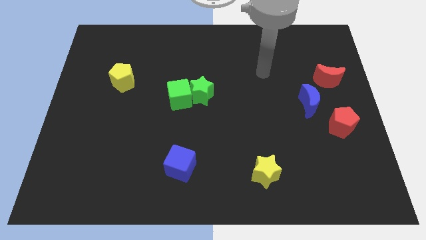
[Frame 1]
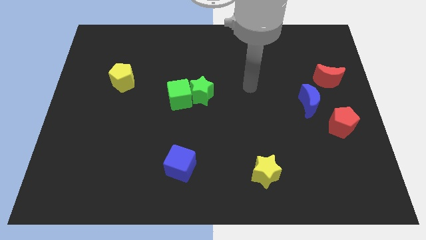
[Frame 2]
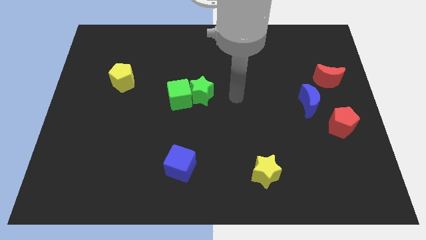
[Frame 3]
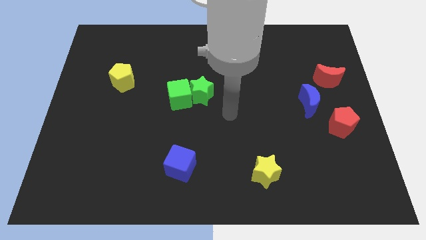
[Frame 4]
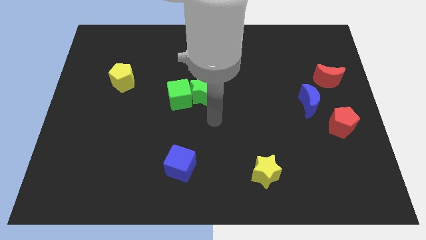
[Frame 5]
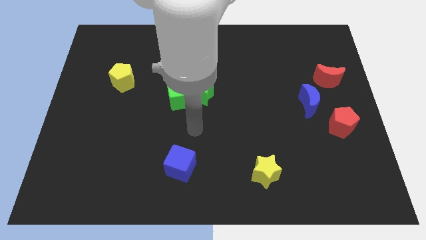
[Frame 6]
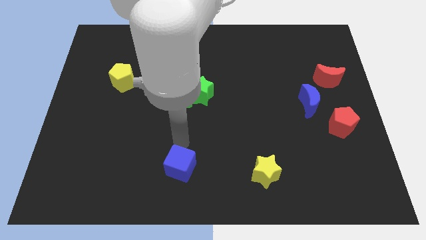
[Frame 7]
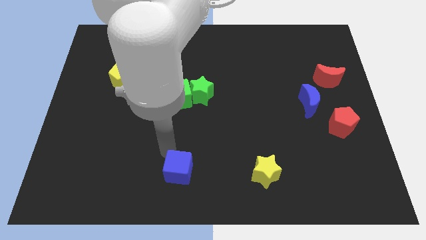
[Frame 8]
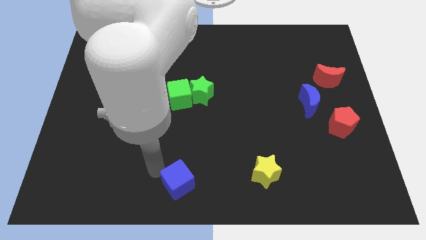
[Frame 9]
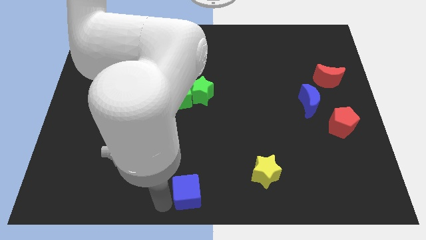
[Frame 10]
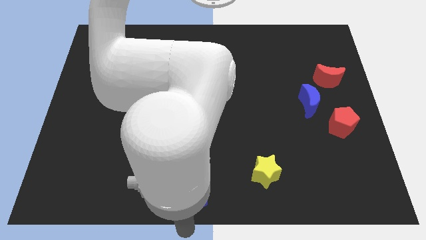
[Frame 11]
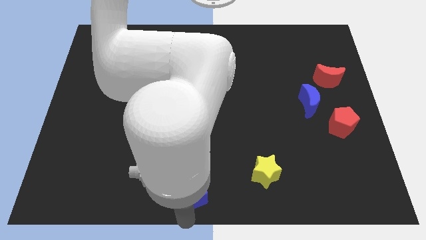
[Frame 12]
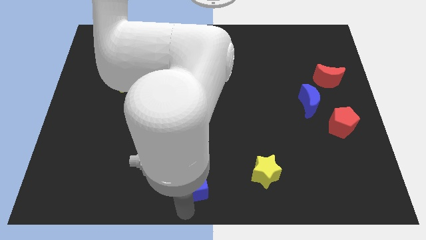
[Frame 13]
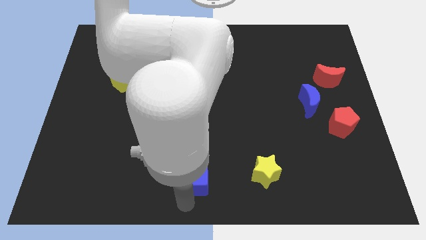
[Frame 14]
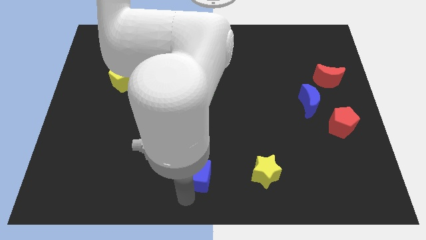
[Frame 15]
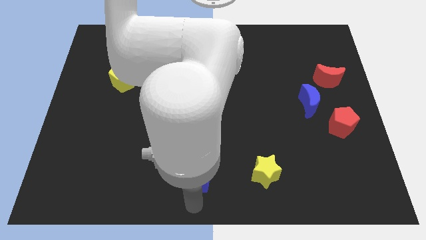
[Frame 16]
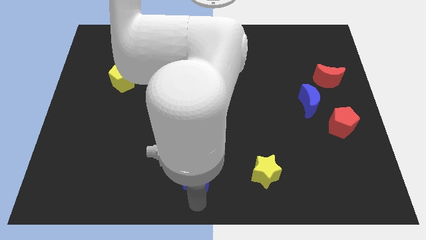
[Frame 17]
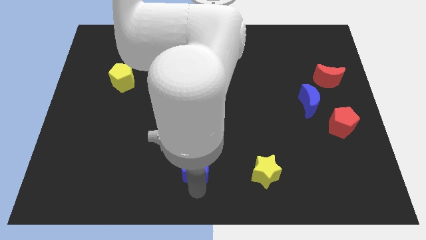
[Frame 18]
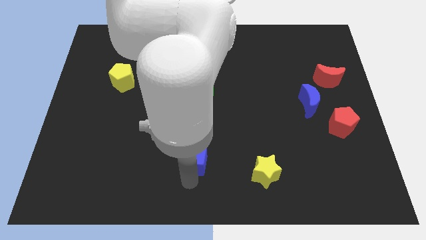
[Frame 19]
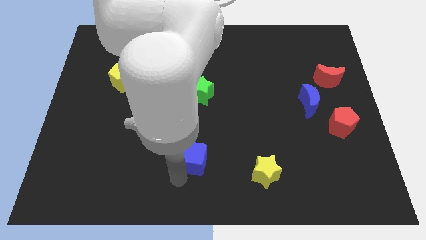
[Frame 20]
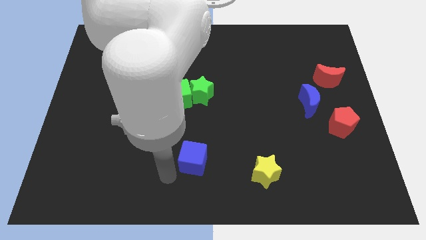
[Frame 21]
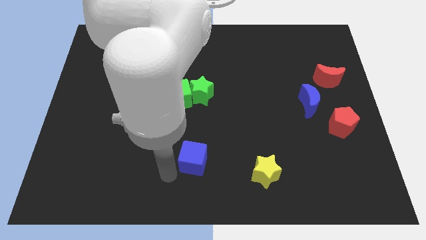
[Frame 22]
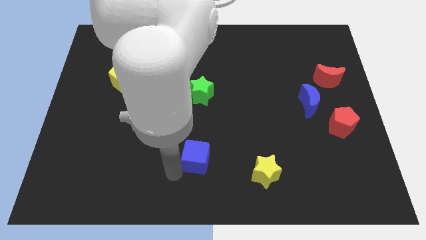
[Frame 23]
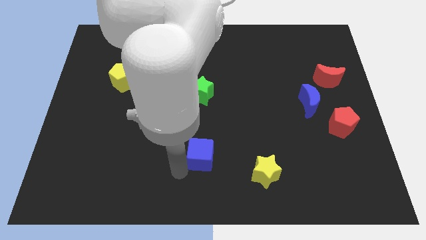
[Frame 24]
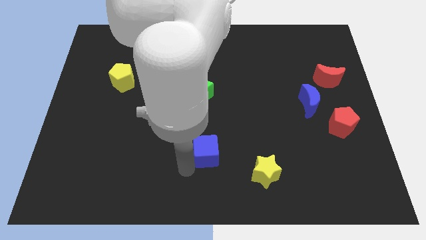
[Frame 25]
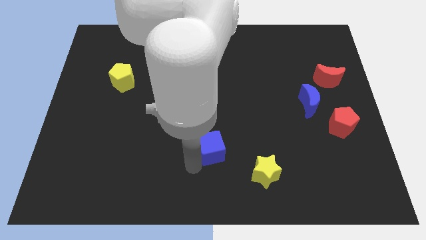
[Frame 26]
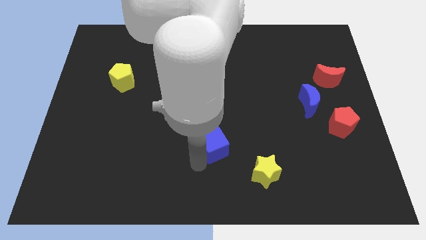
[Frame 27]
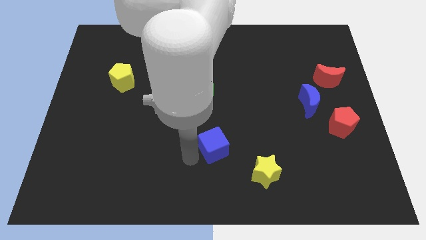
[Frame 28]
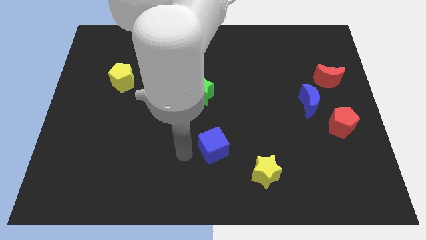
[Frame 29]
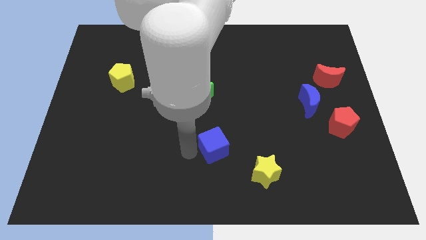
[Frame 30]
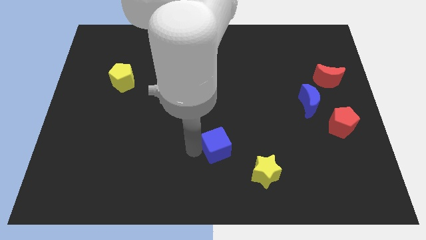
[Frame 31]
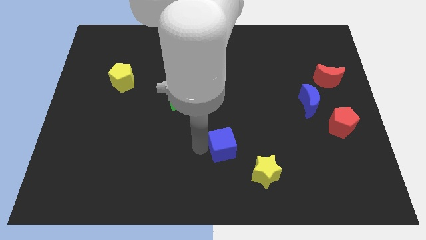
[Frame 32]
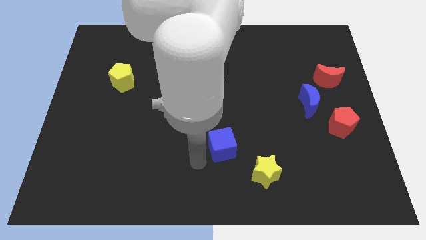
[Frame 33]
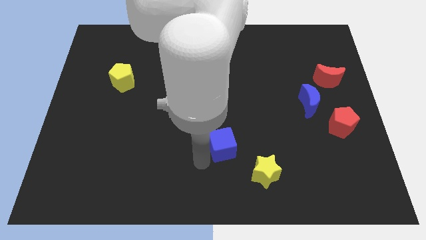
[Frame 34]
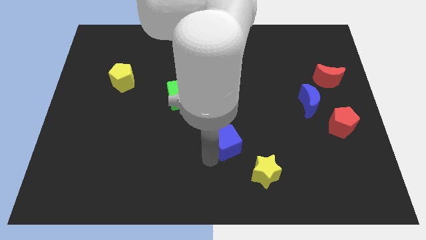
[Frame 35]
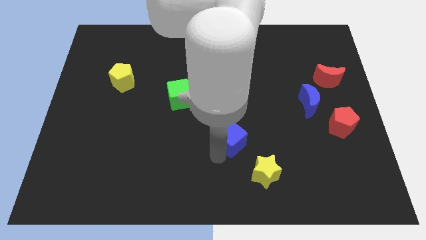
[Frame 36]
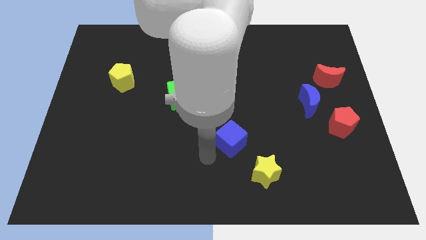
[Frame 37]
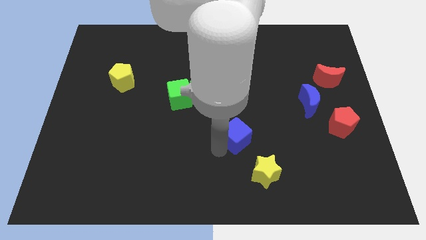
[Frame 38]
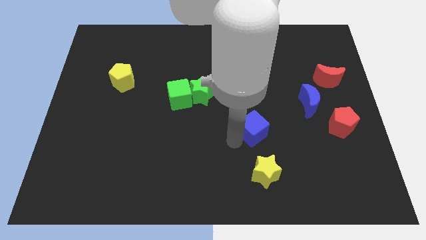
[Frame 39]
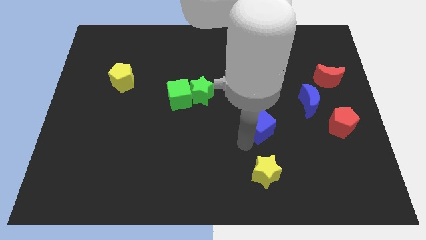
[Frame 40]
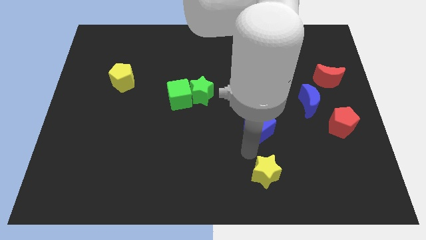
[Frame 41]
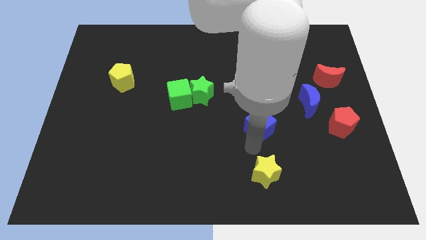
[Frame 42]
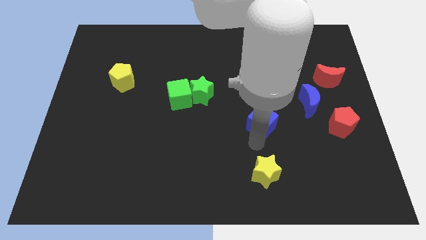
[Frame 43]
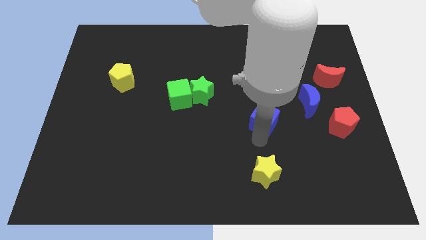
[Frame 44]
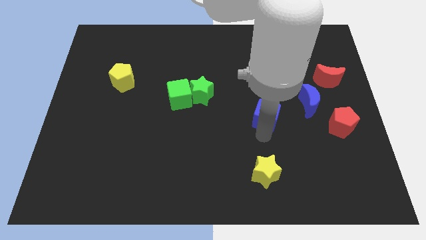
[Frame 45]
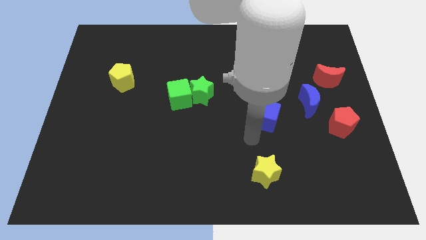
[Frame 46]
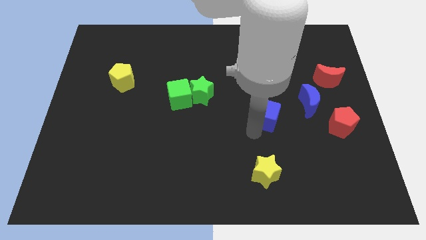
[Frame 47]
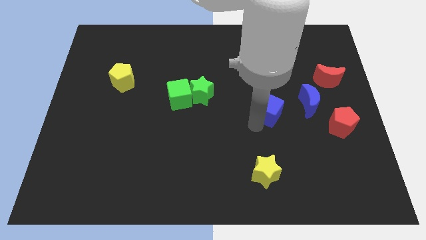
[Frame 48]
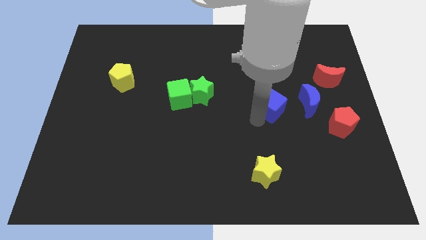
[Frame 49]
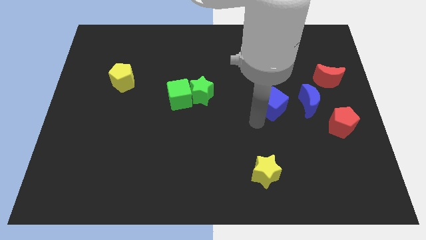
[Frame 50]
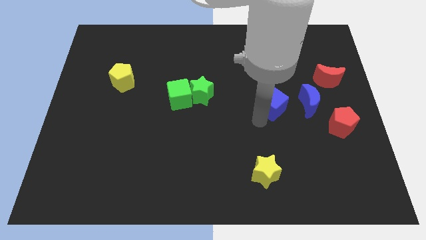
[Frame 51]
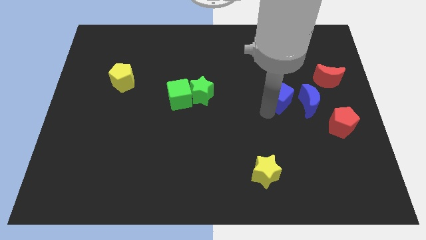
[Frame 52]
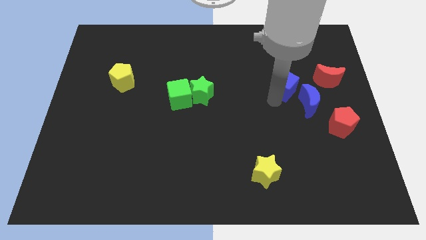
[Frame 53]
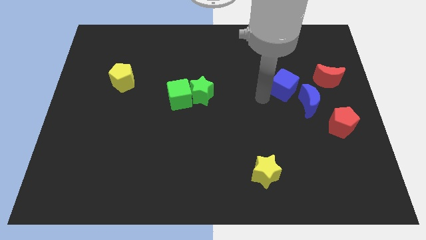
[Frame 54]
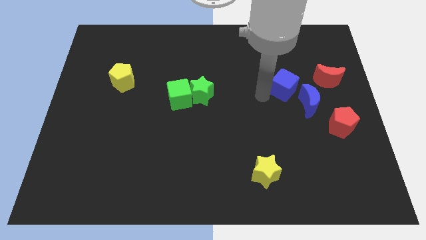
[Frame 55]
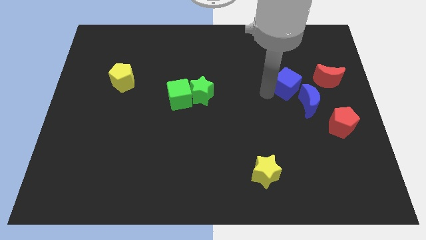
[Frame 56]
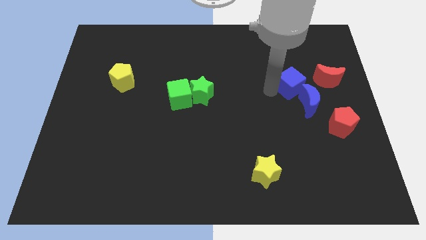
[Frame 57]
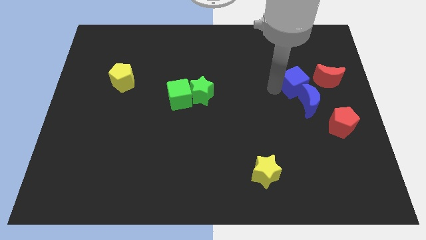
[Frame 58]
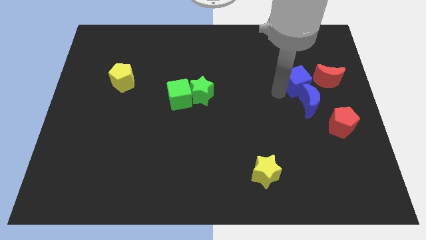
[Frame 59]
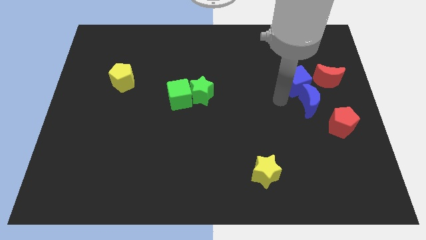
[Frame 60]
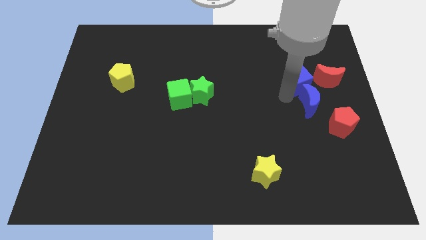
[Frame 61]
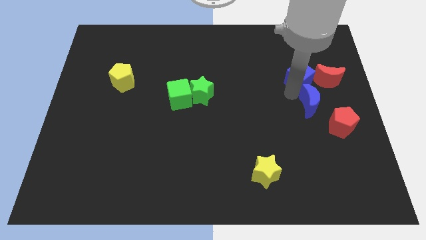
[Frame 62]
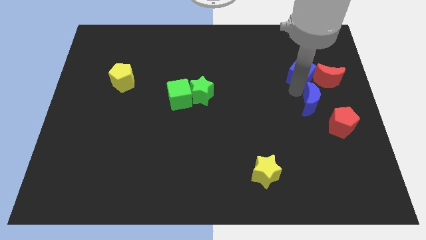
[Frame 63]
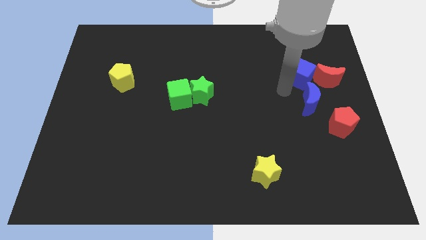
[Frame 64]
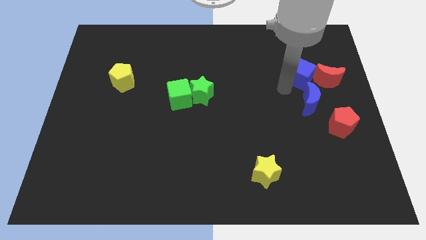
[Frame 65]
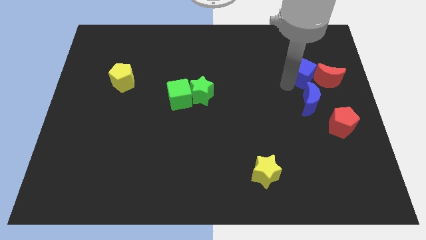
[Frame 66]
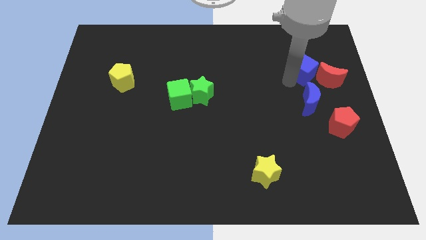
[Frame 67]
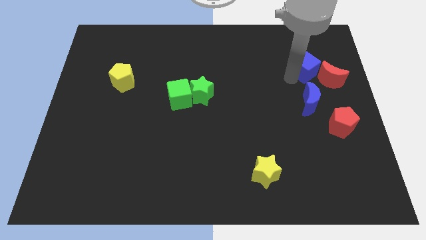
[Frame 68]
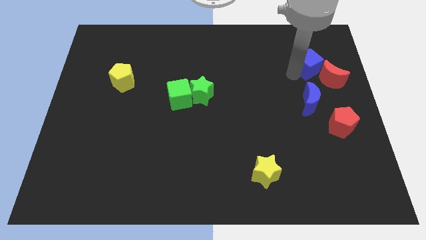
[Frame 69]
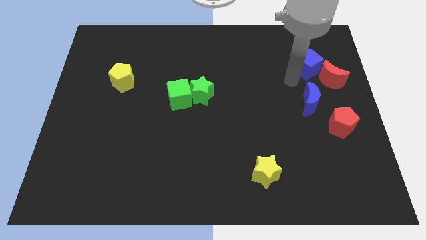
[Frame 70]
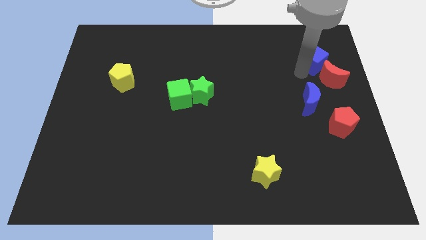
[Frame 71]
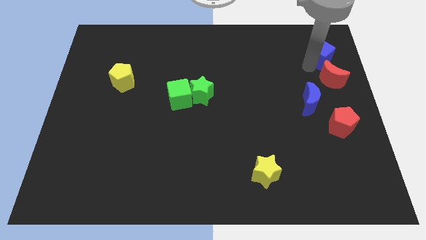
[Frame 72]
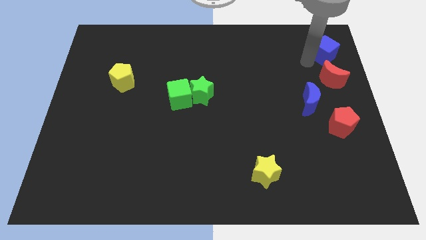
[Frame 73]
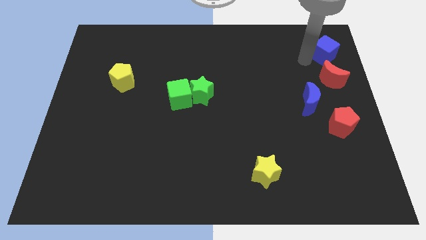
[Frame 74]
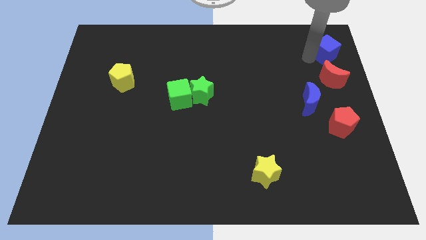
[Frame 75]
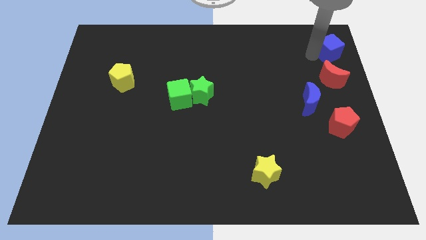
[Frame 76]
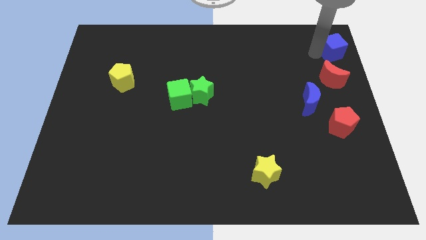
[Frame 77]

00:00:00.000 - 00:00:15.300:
move the blue cube to the top right

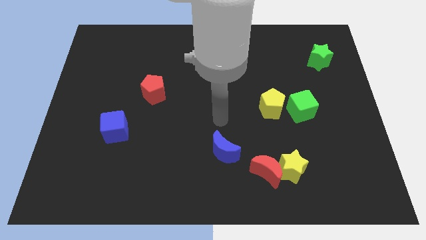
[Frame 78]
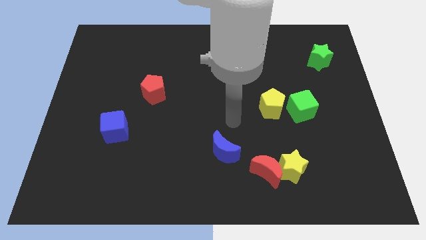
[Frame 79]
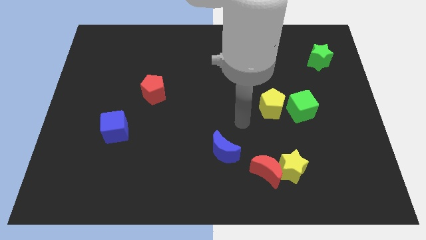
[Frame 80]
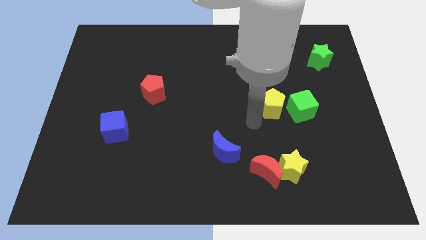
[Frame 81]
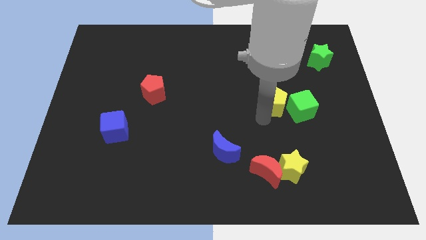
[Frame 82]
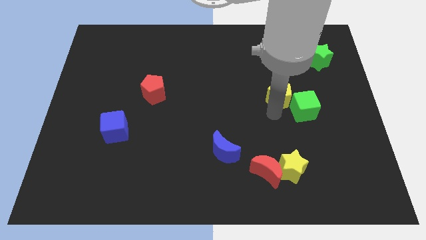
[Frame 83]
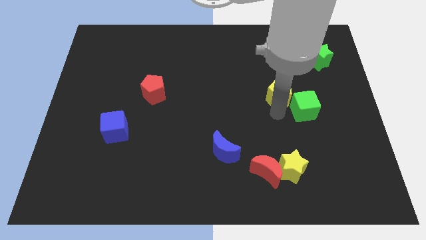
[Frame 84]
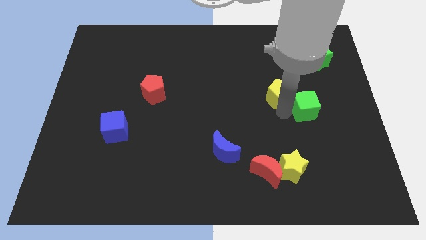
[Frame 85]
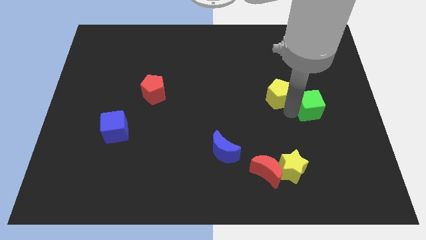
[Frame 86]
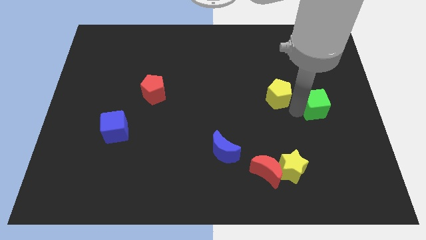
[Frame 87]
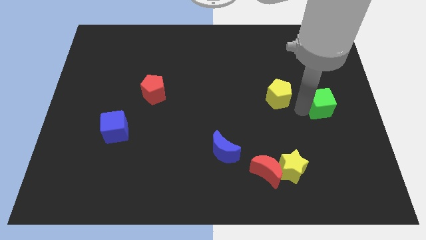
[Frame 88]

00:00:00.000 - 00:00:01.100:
move the green cube to the right side of the board
